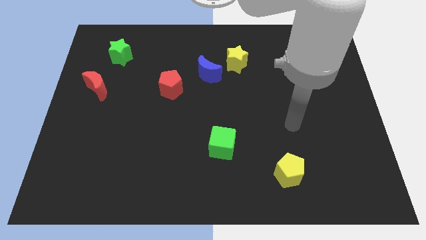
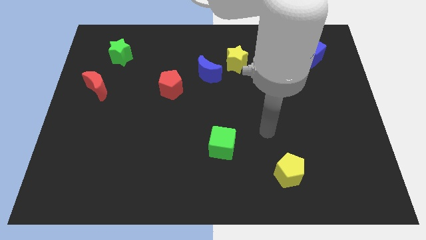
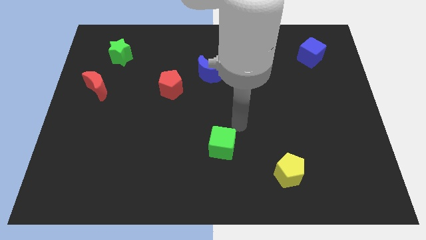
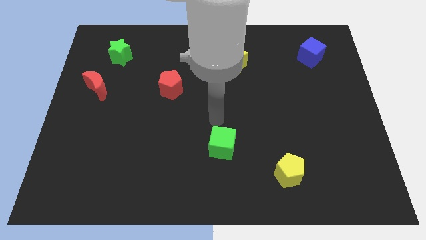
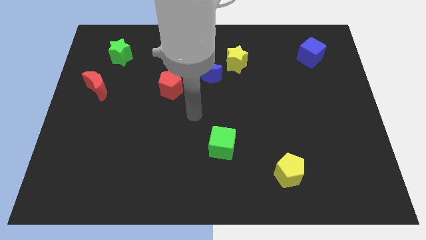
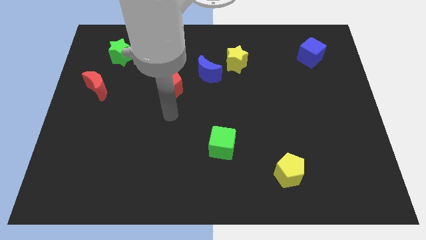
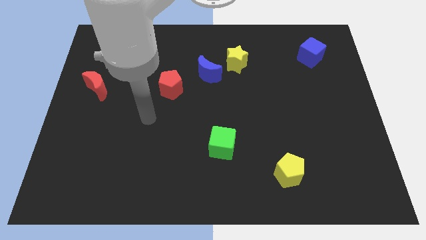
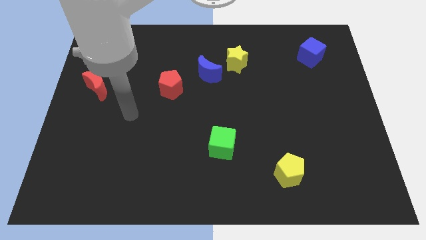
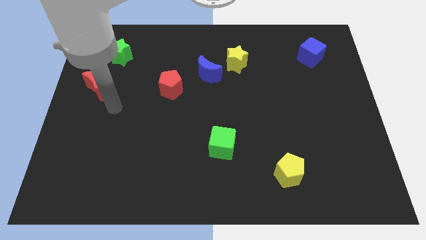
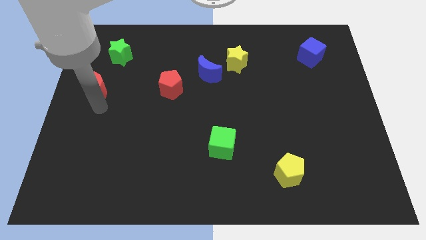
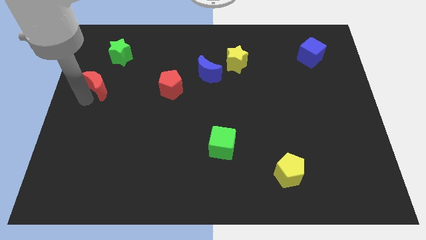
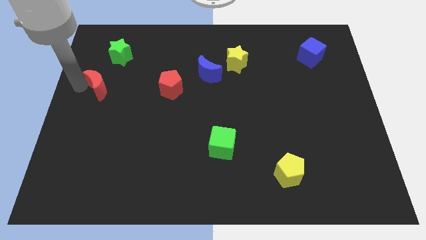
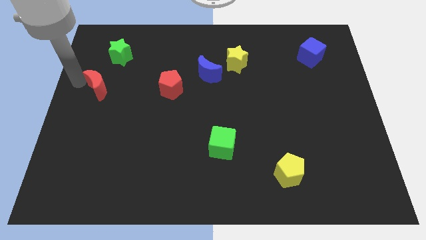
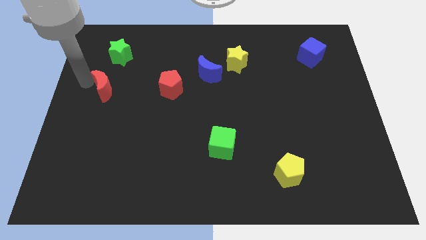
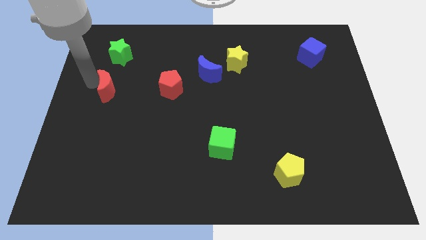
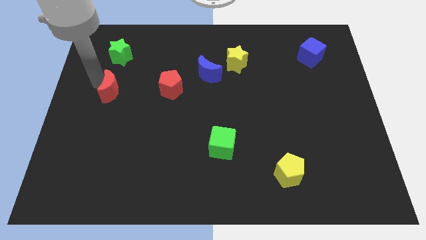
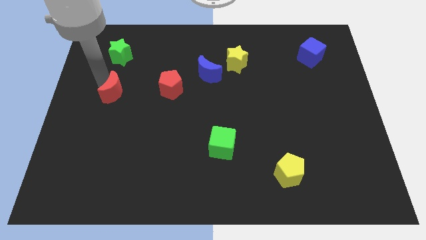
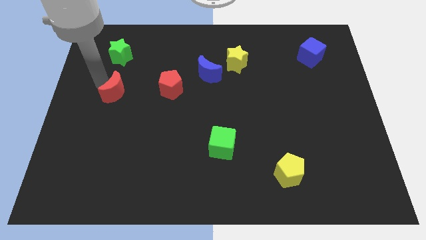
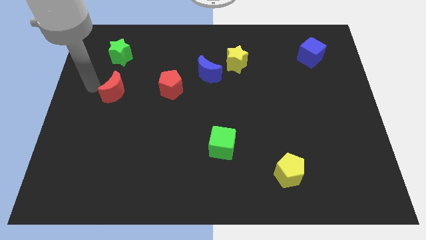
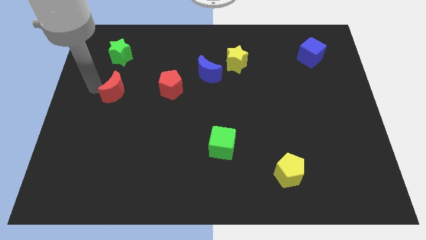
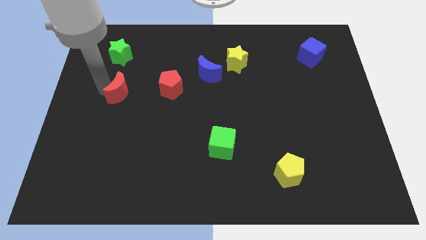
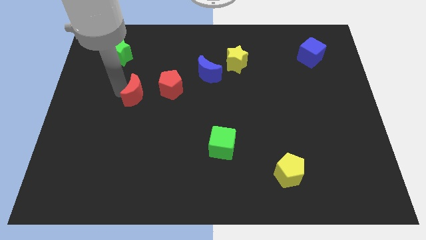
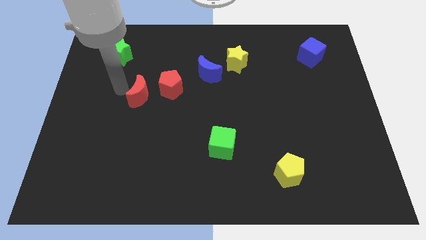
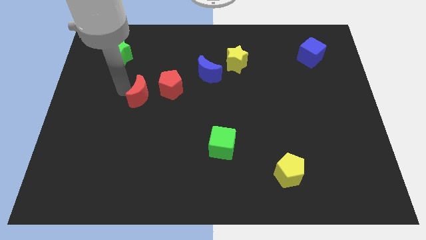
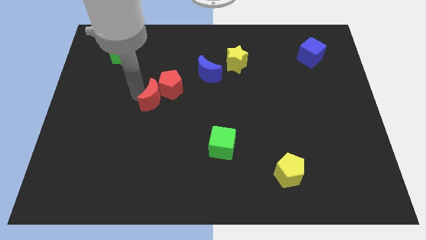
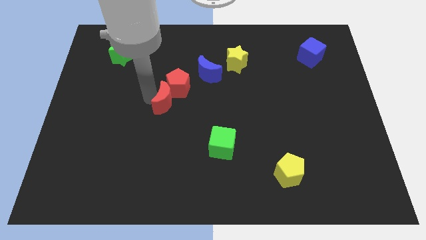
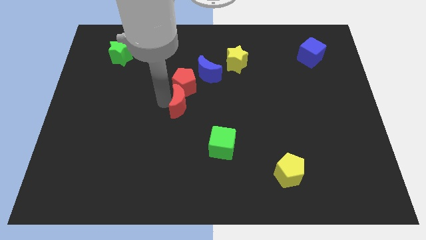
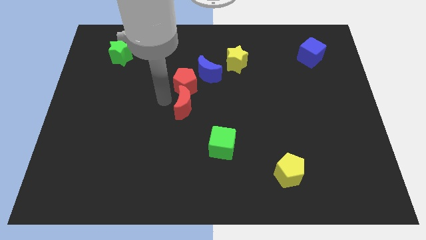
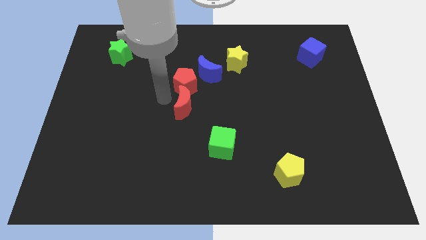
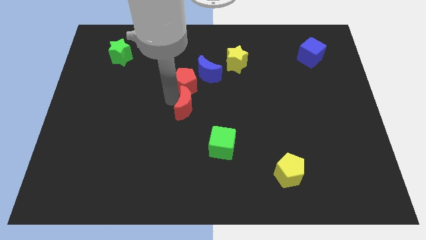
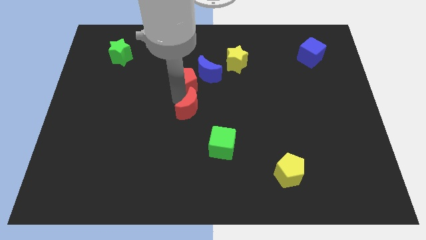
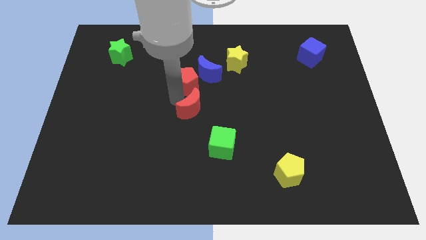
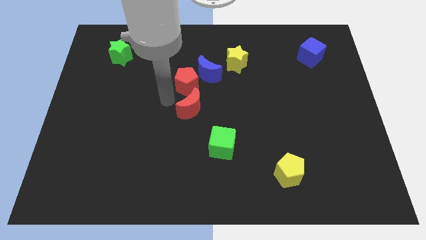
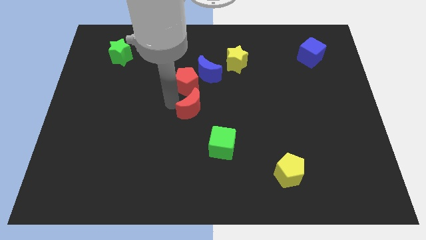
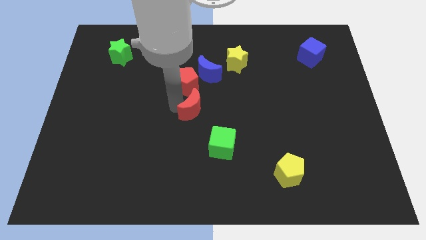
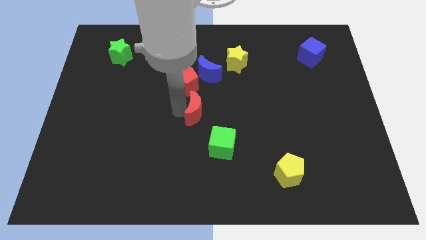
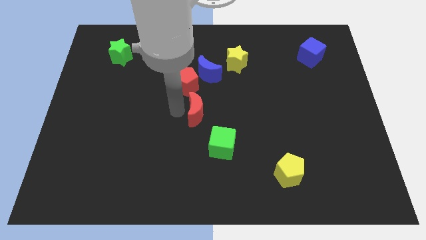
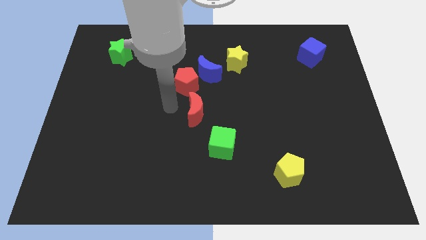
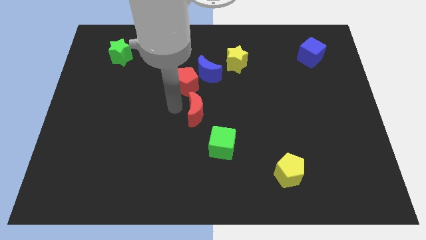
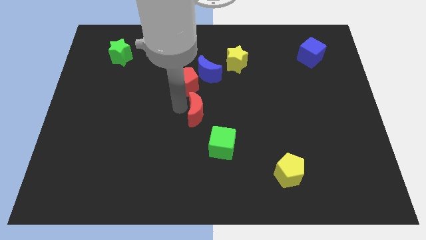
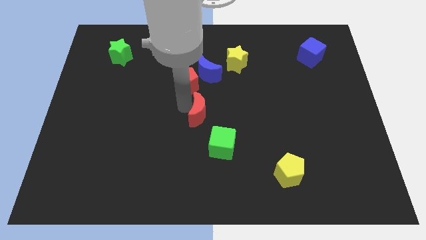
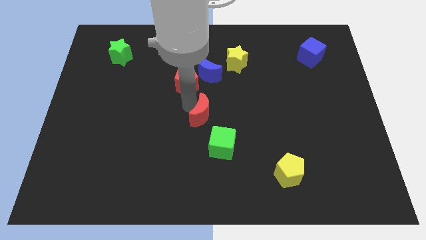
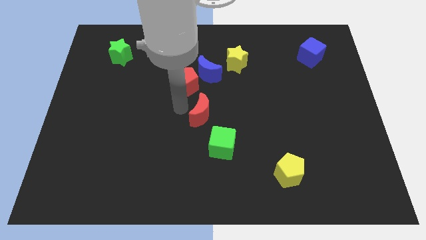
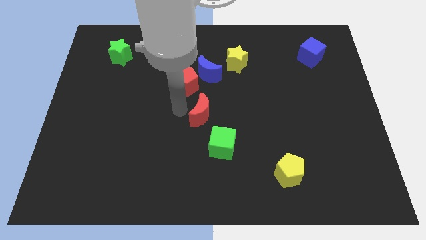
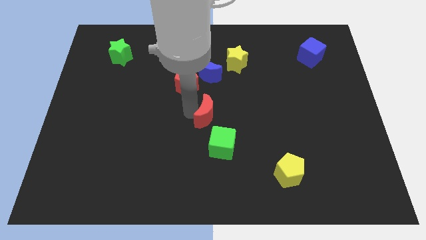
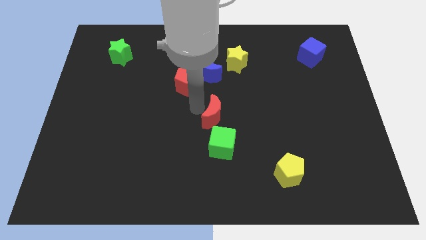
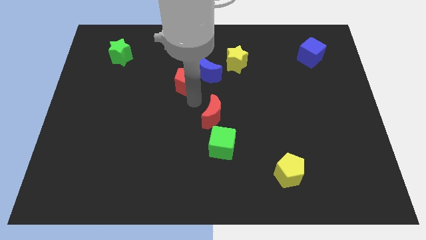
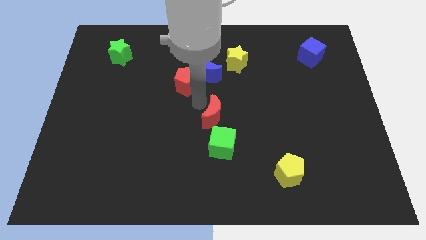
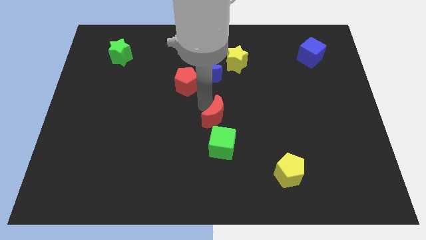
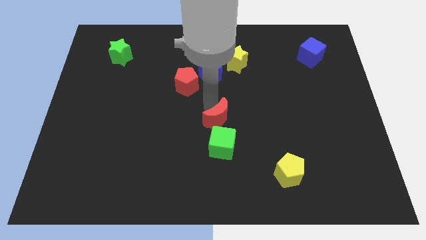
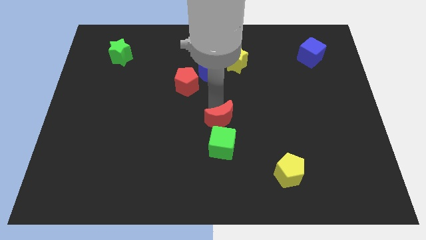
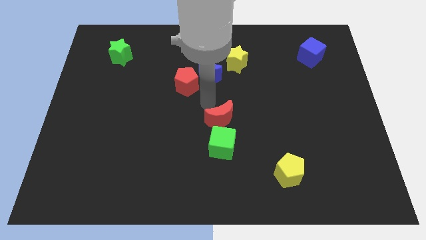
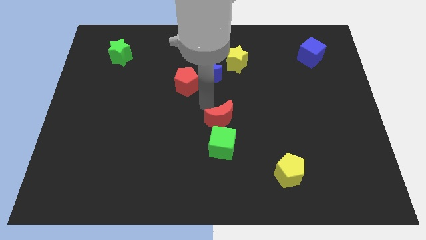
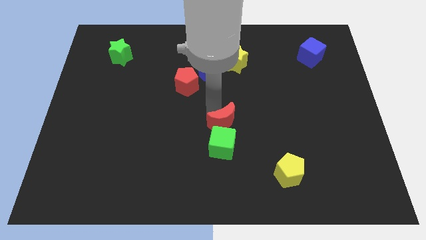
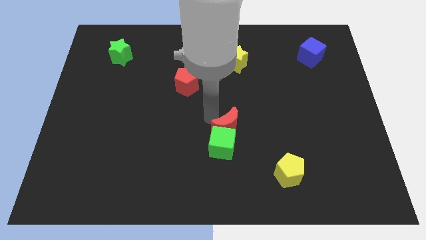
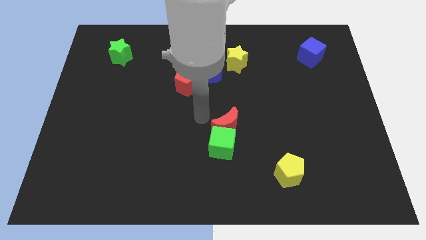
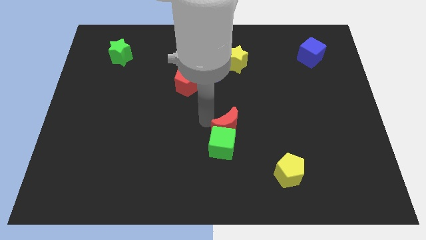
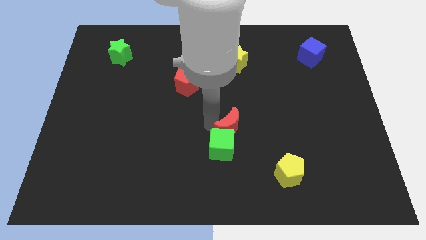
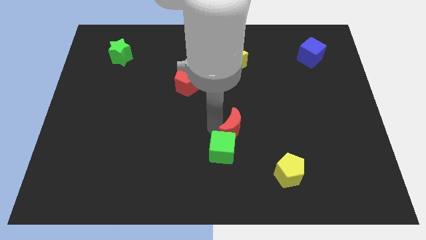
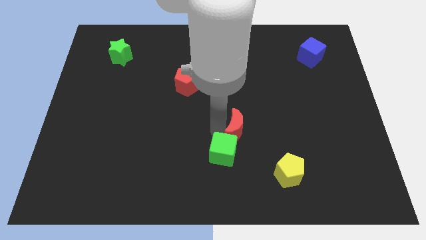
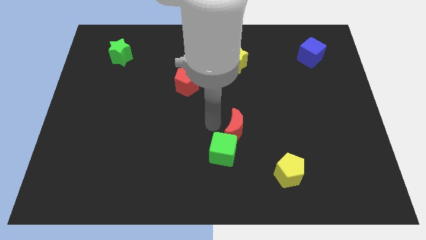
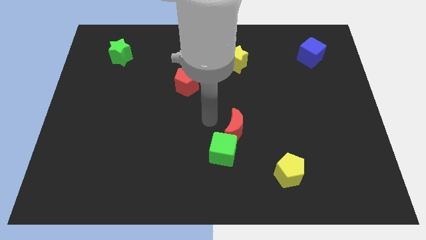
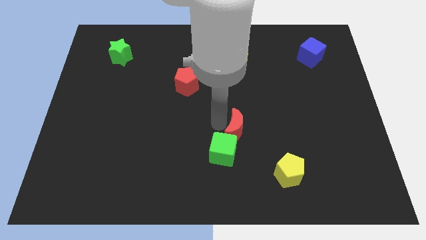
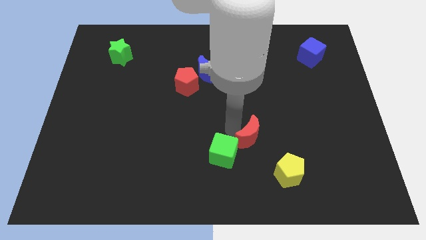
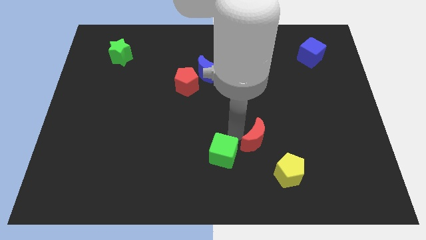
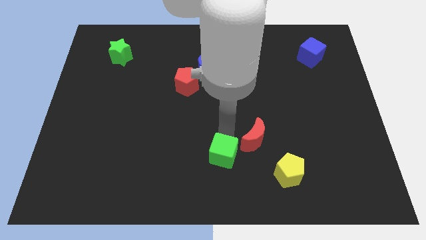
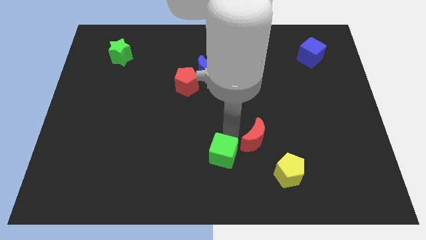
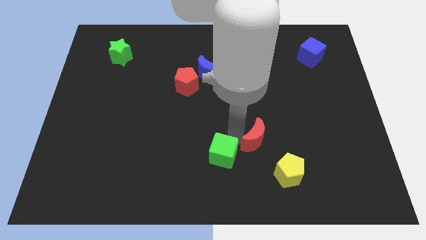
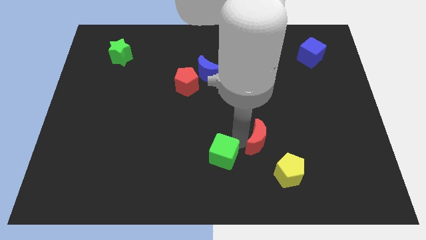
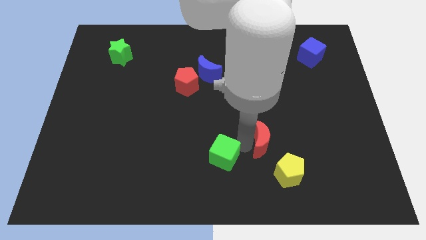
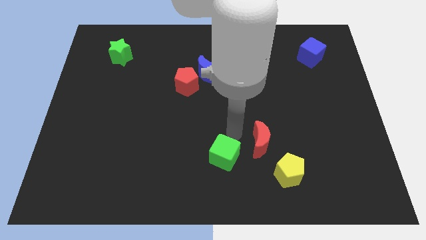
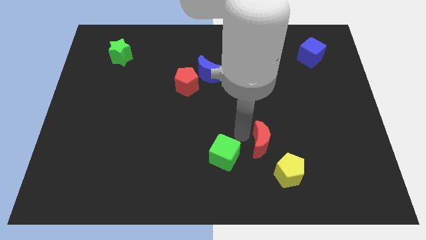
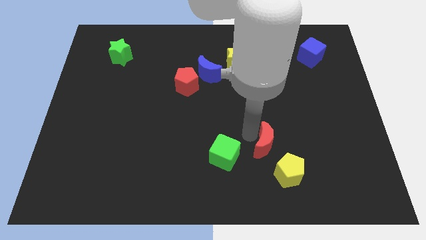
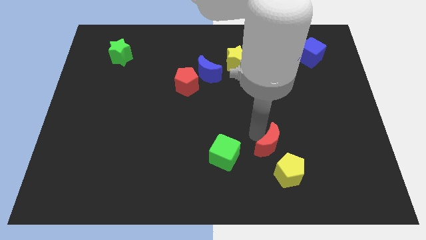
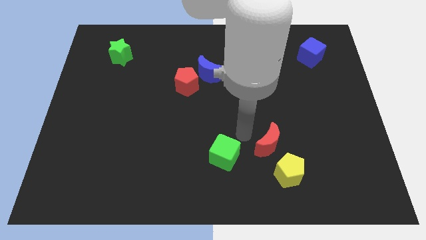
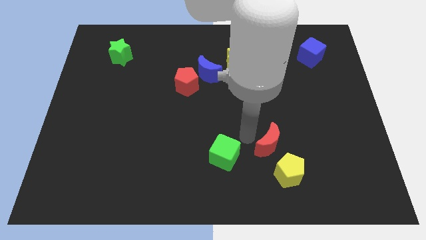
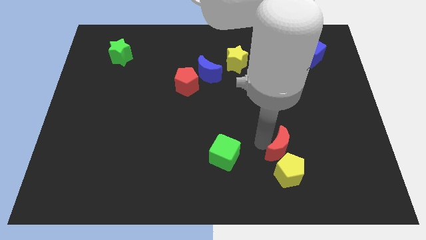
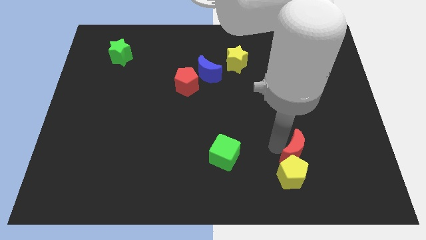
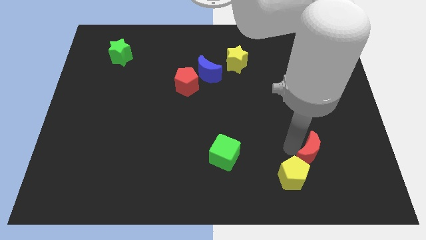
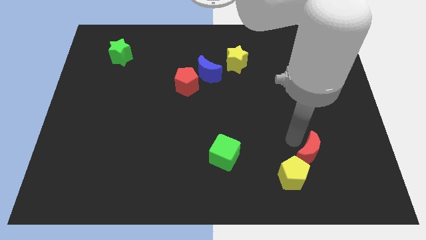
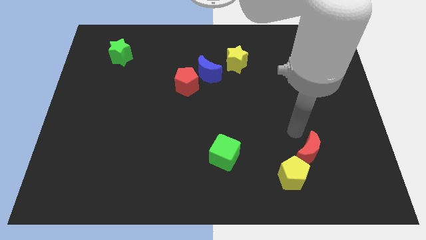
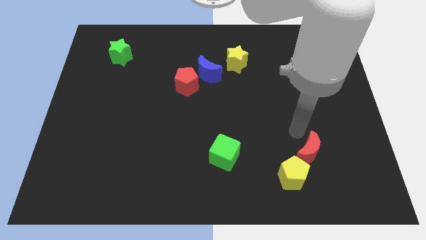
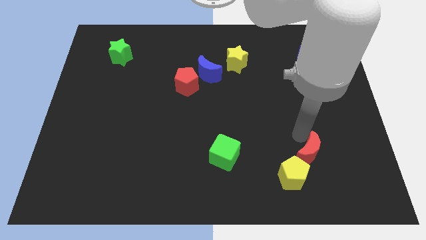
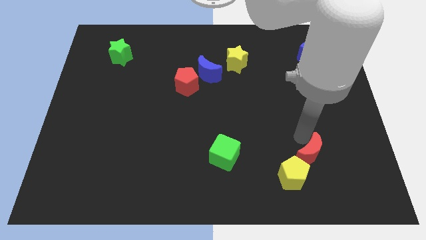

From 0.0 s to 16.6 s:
push the red moon to the right side of the yellow pentagon
